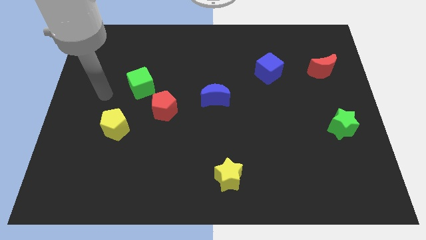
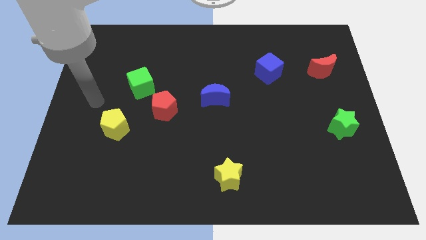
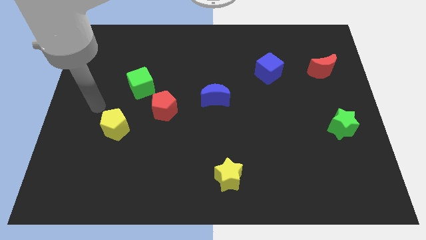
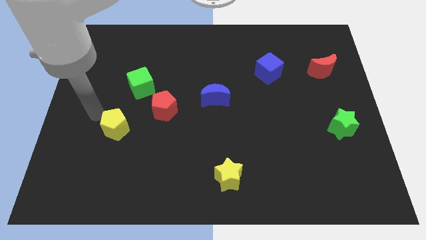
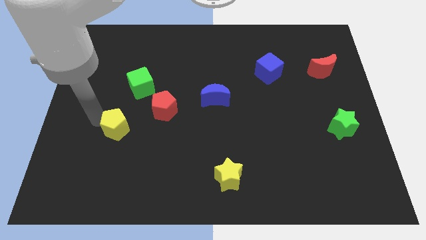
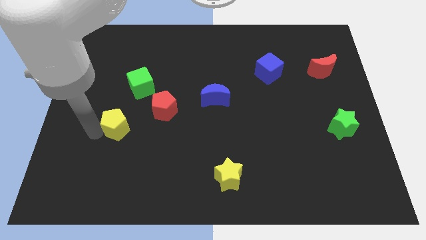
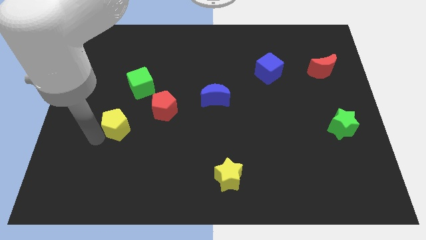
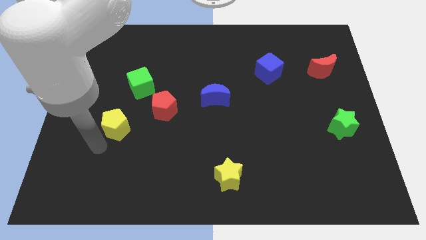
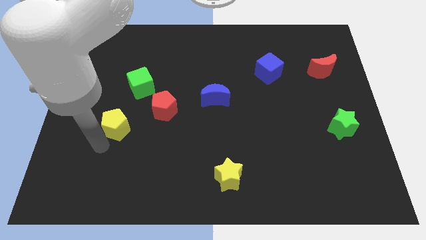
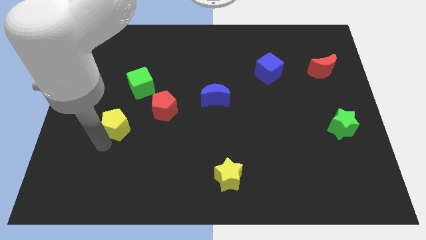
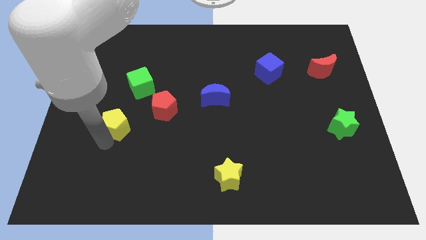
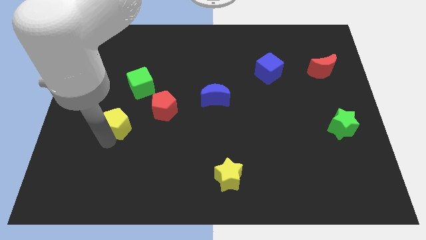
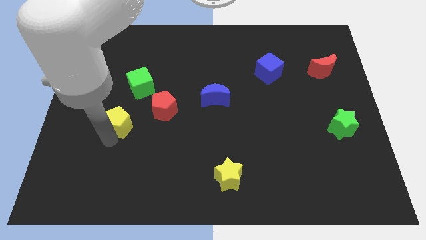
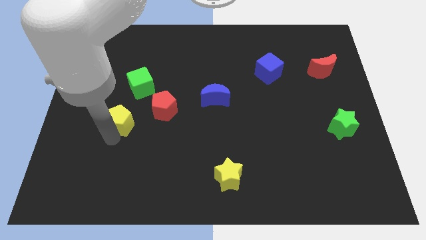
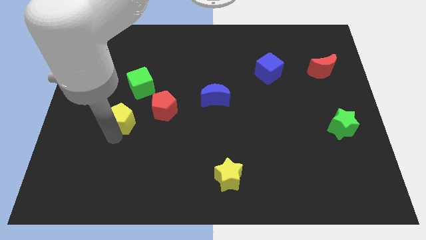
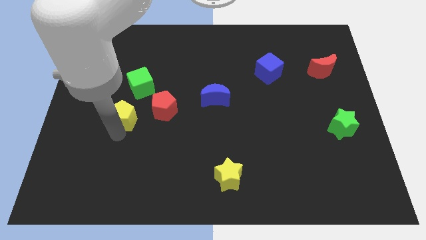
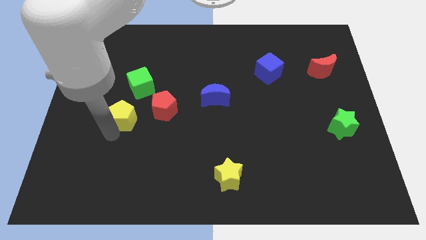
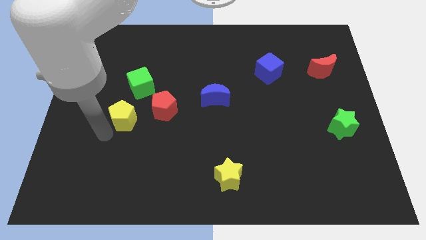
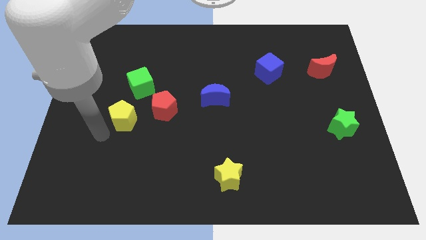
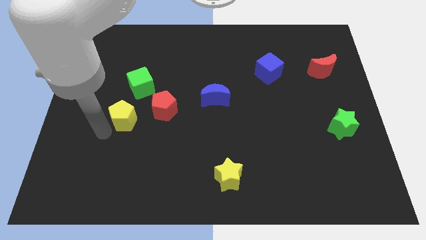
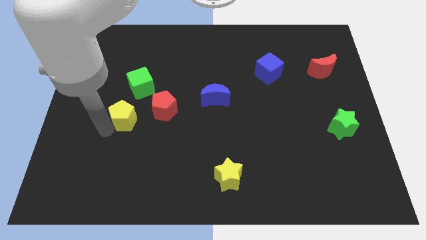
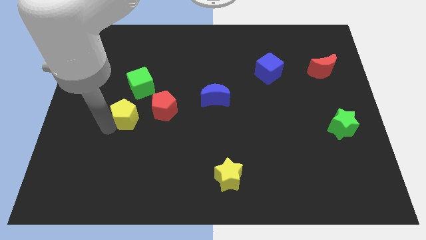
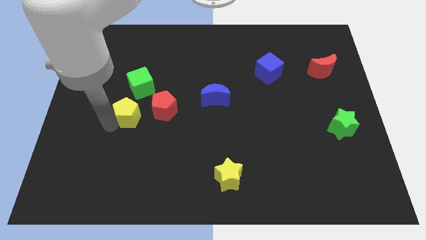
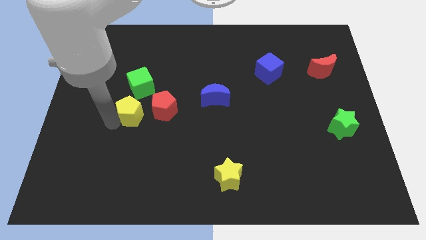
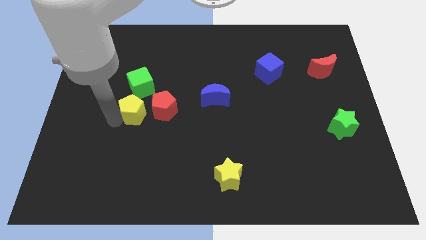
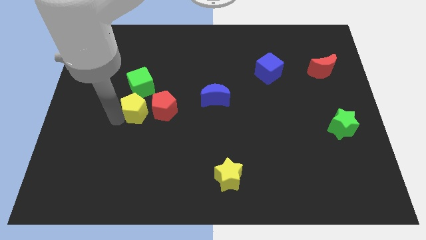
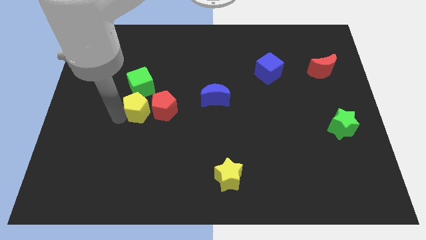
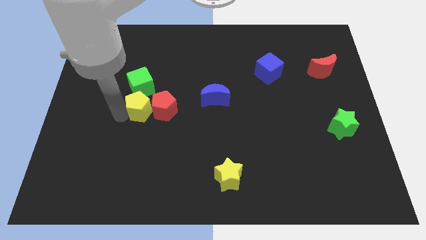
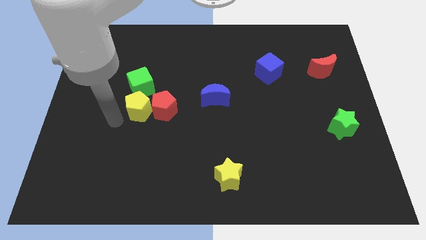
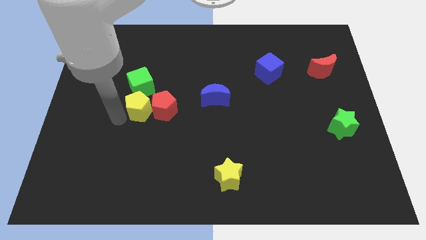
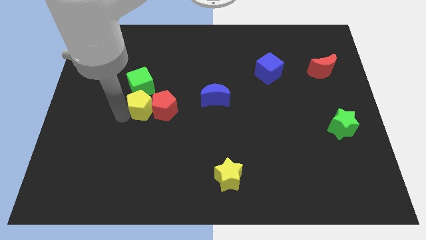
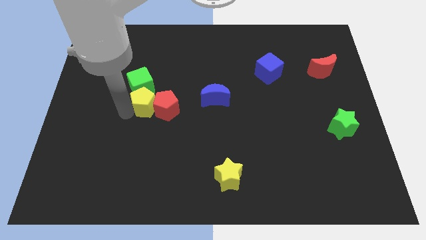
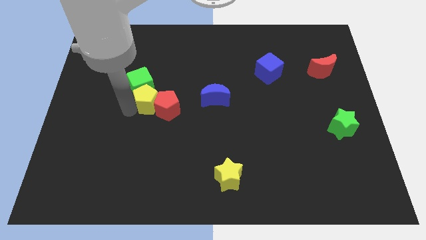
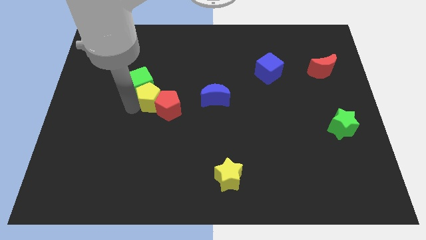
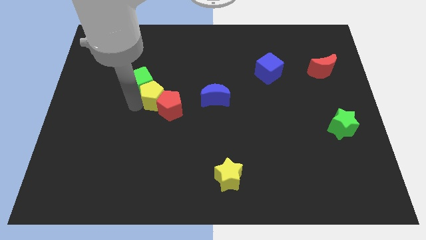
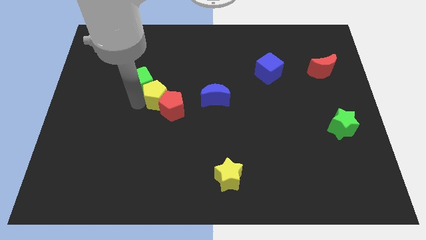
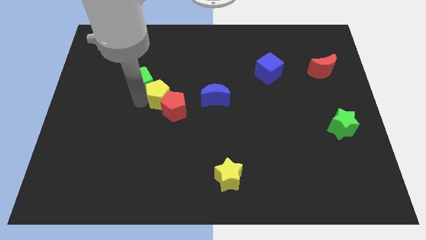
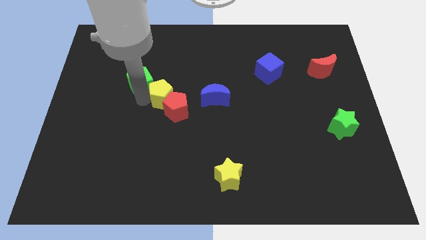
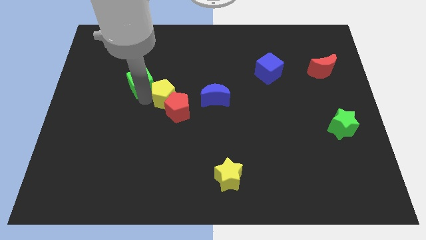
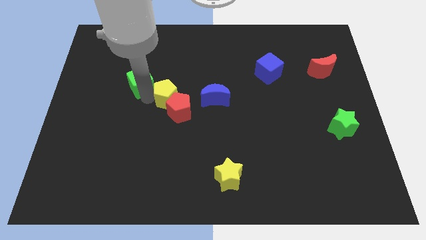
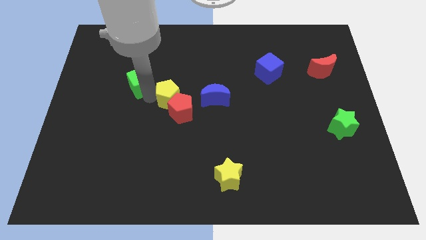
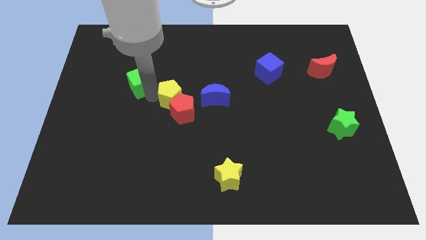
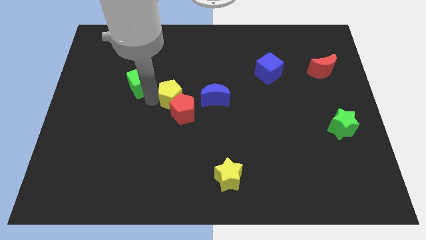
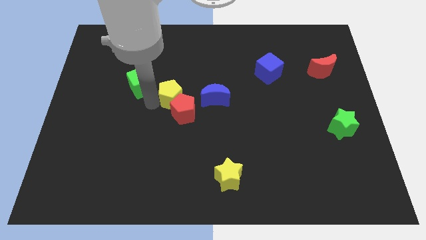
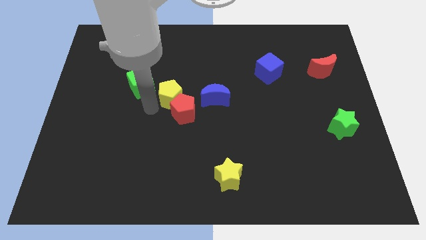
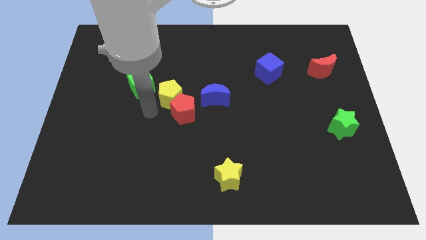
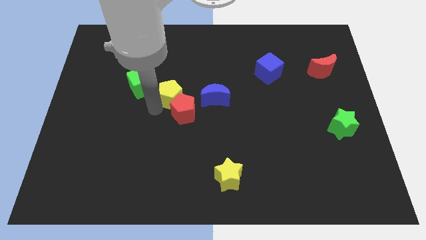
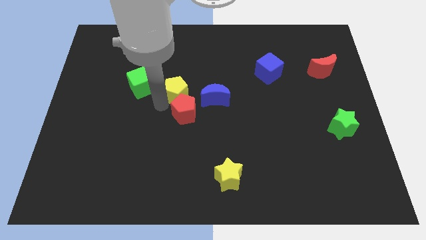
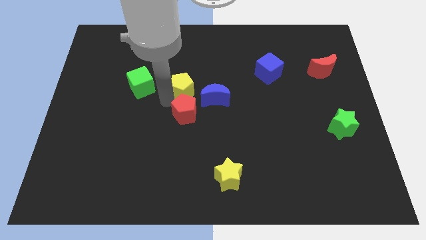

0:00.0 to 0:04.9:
move the yellow pentagon to the top left side of the blue moon

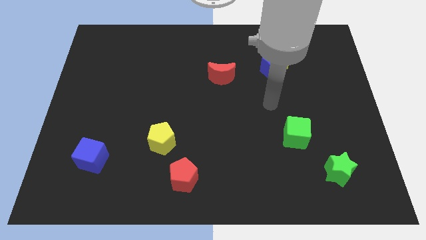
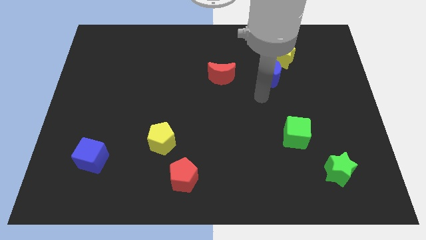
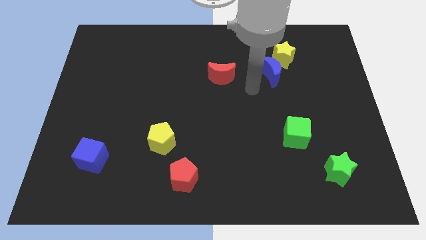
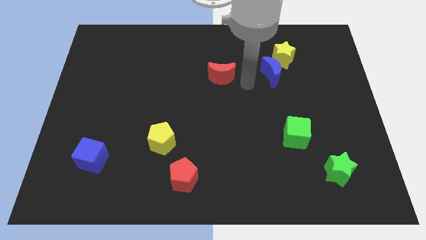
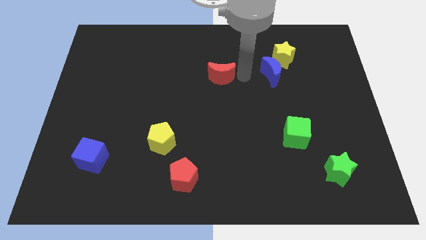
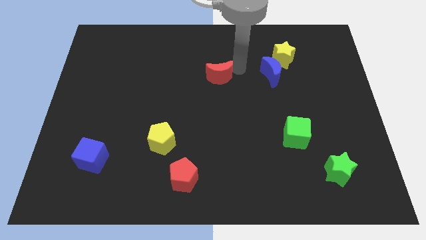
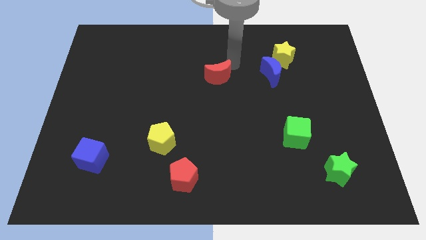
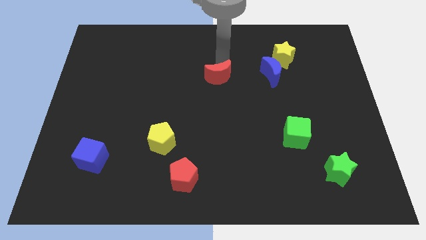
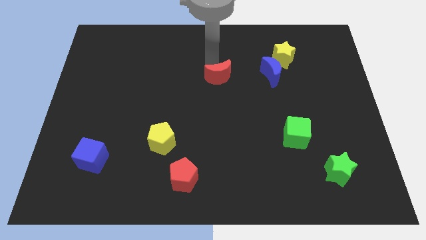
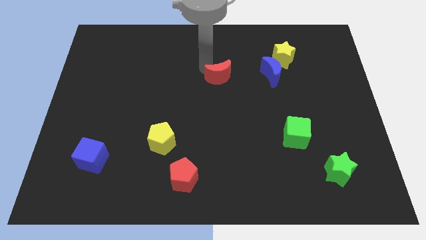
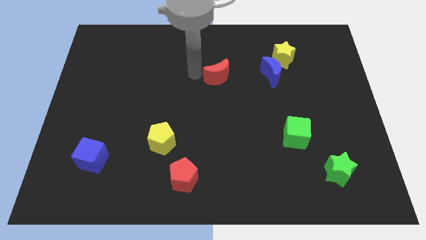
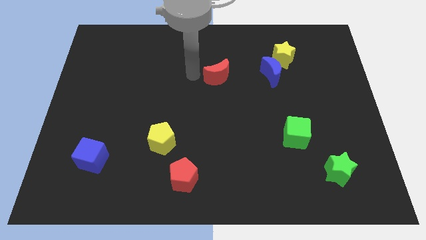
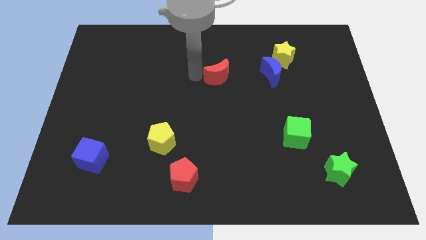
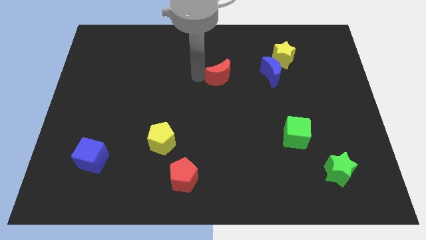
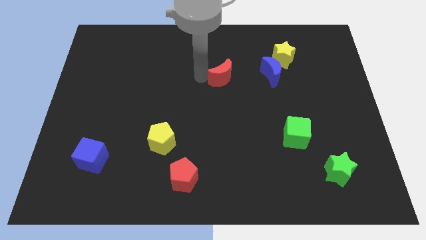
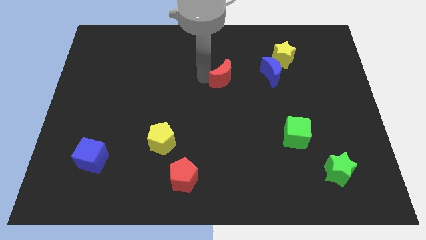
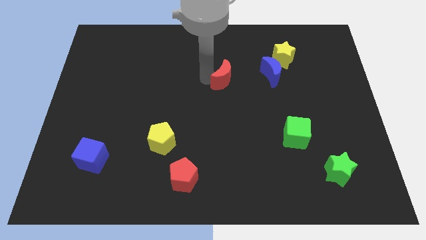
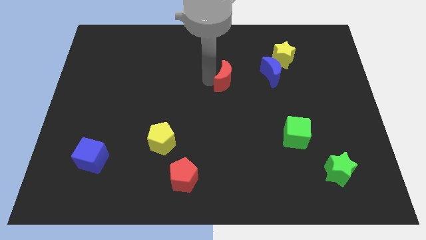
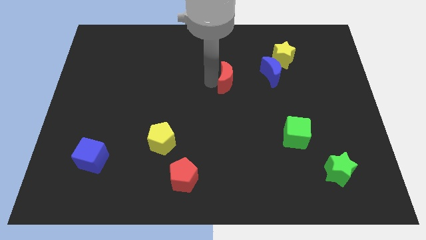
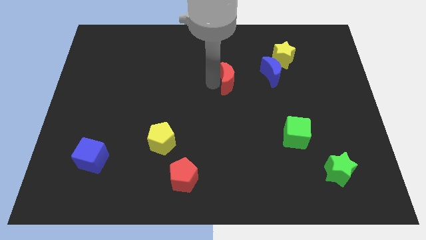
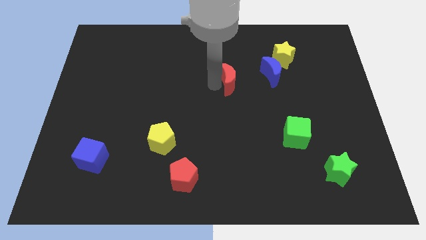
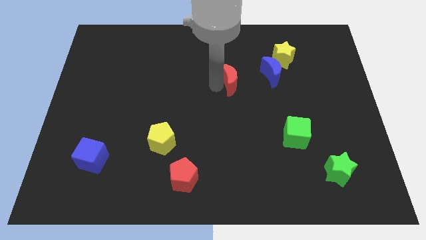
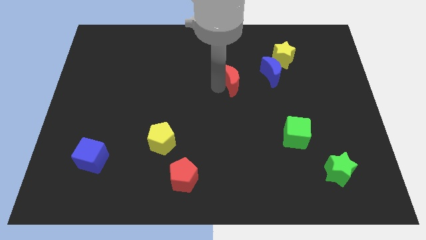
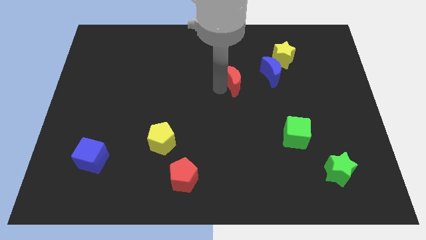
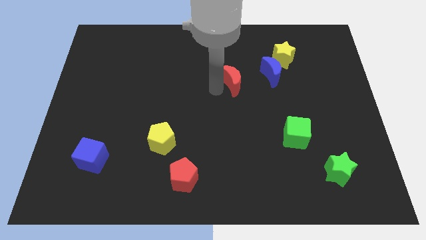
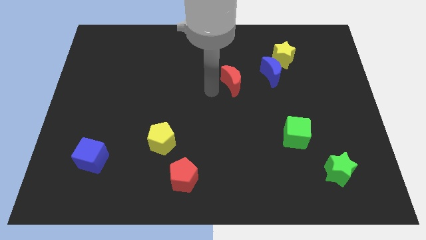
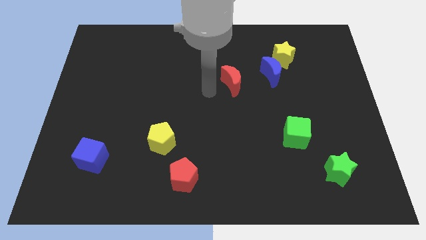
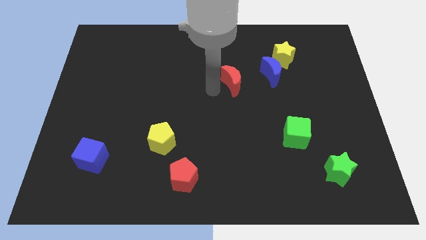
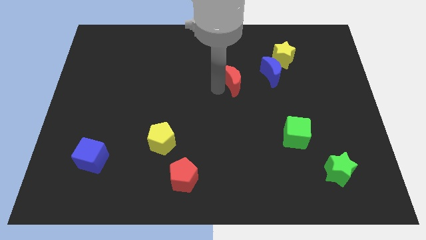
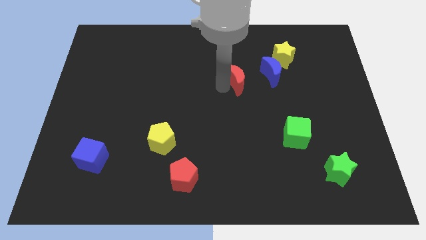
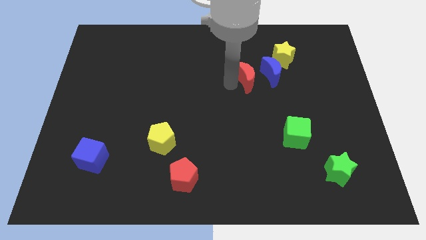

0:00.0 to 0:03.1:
slide the red moon diagonally down and to the left of the yellow star

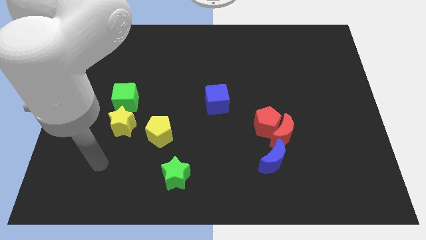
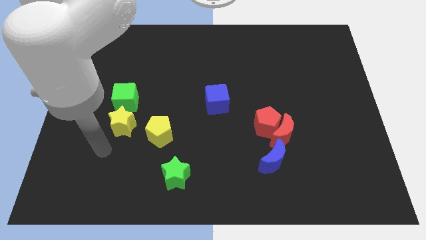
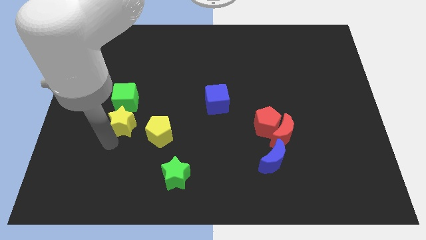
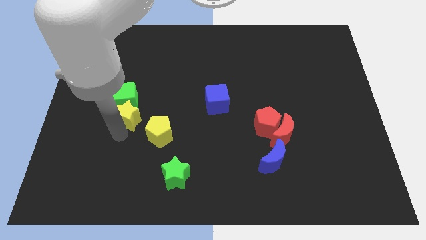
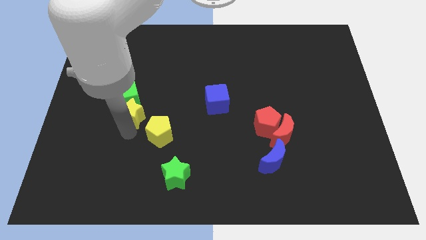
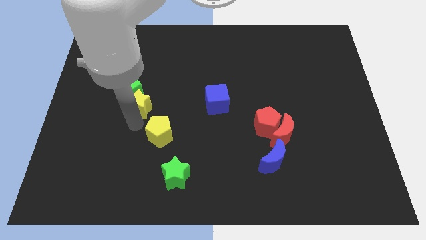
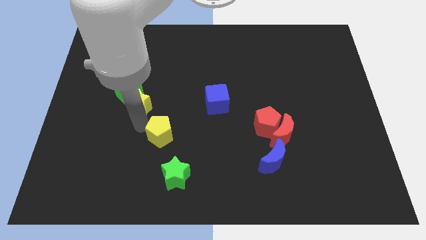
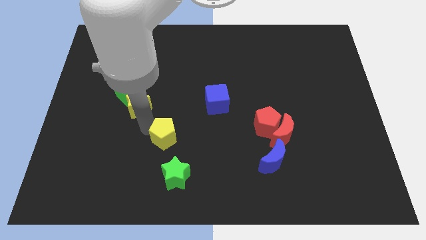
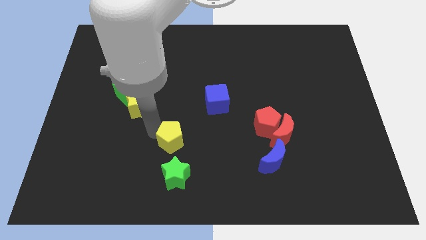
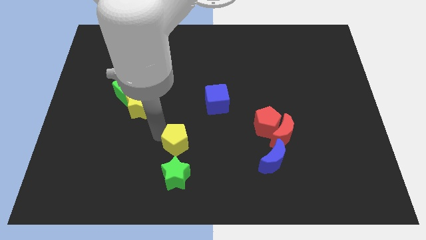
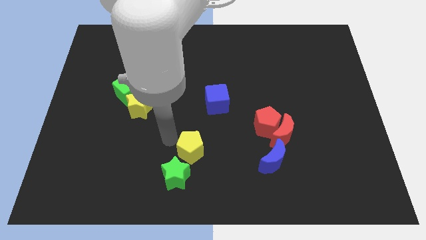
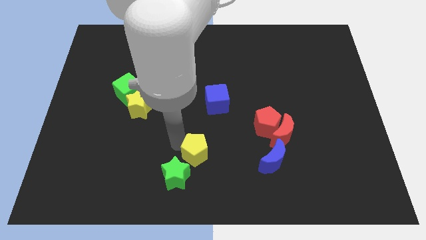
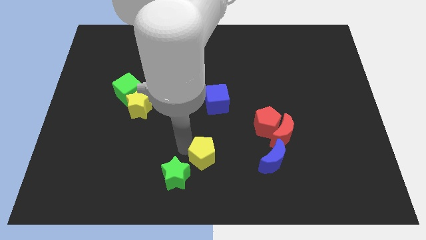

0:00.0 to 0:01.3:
push the yellow pentagon just left of the blue moon
